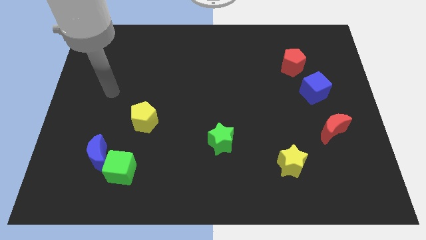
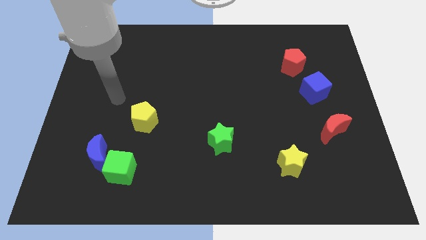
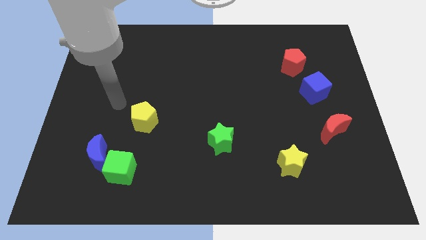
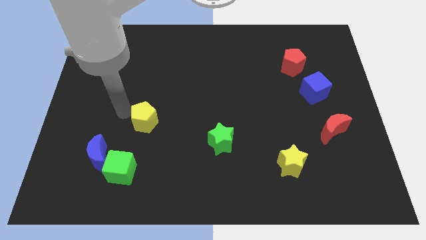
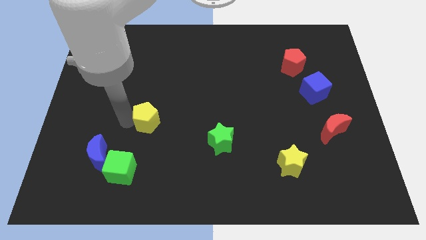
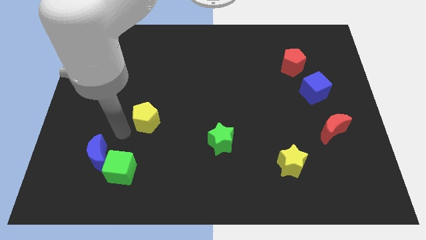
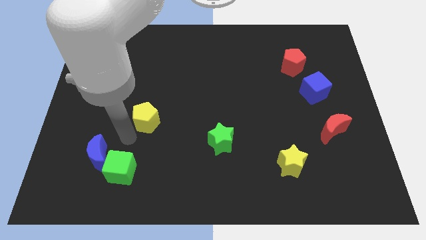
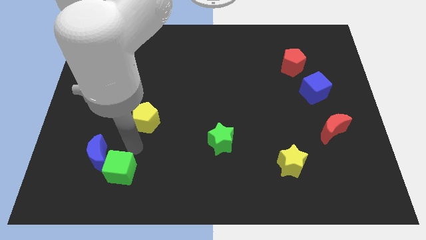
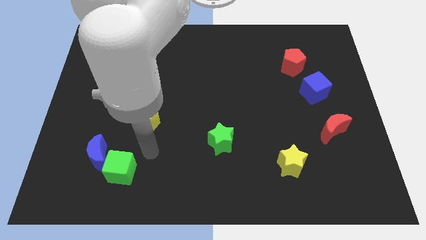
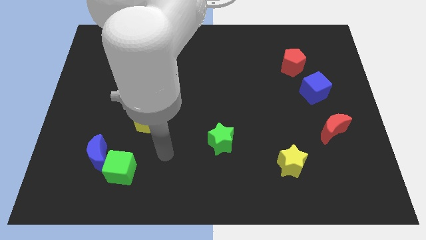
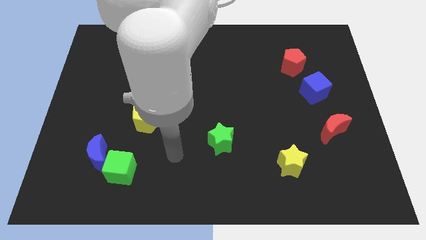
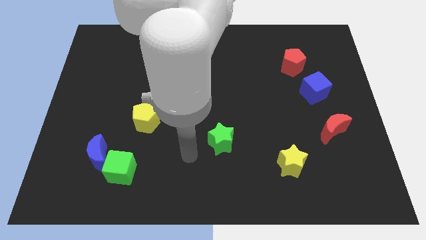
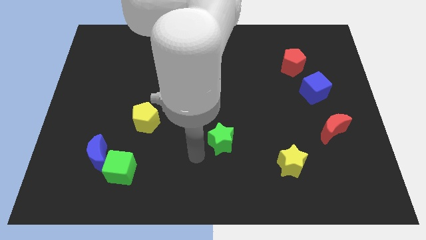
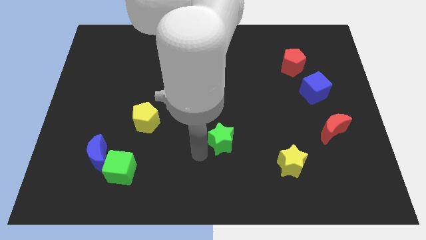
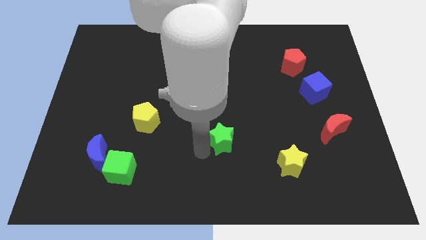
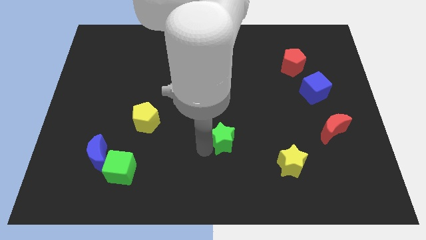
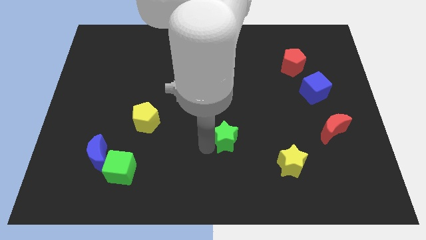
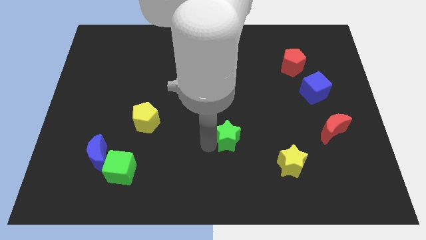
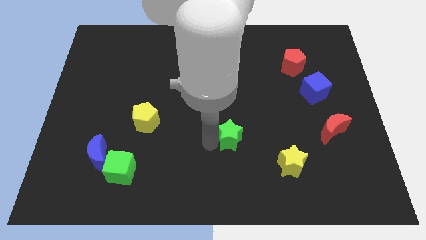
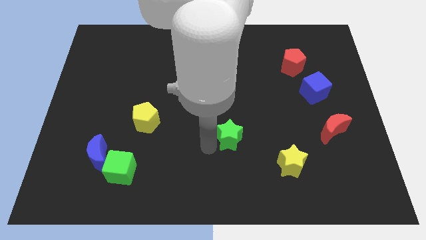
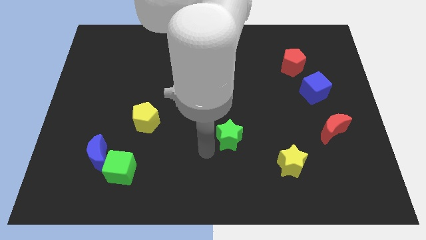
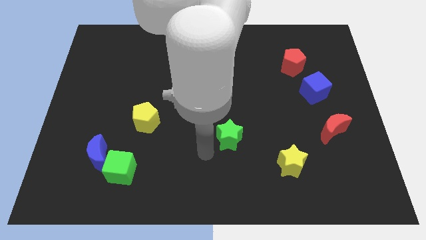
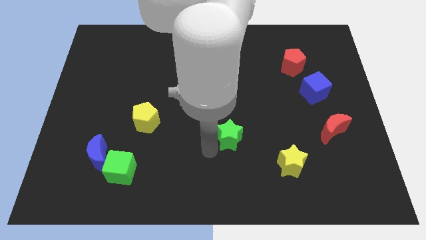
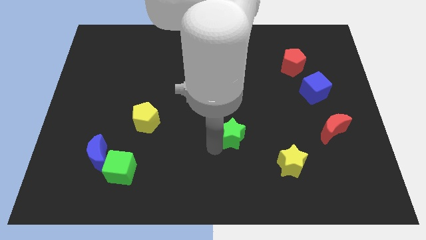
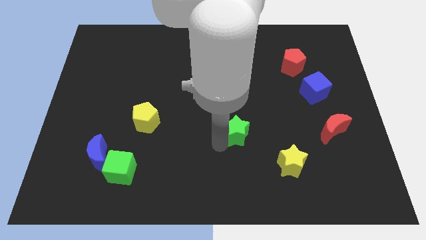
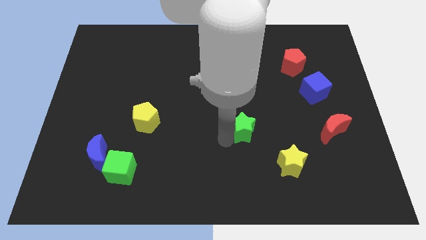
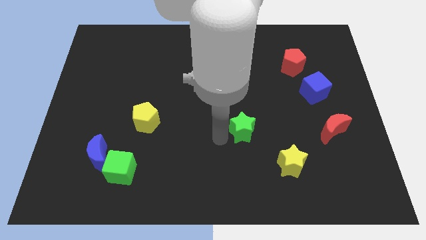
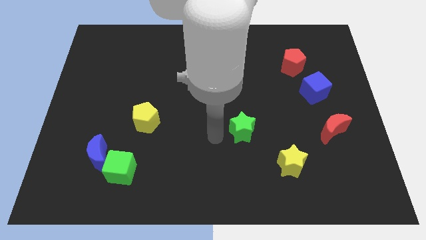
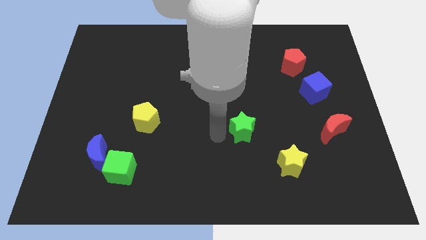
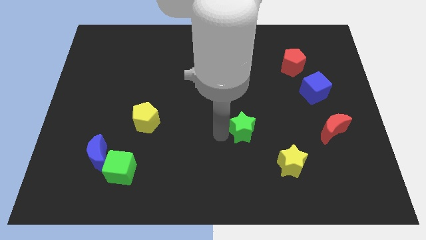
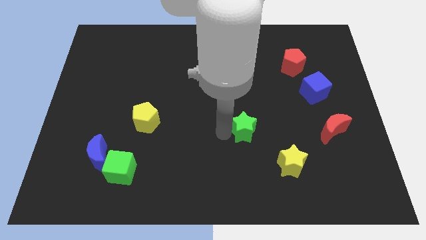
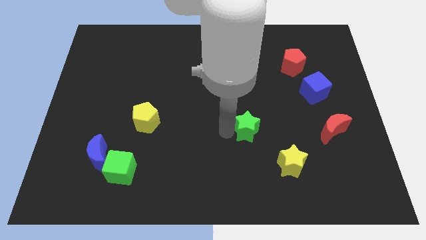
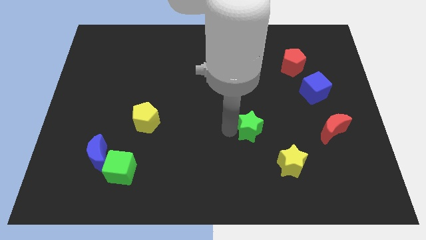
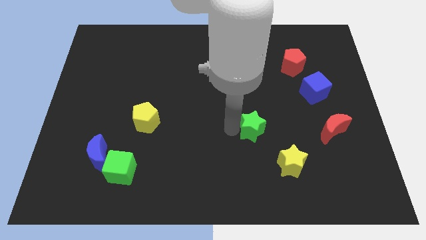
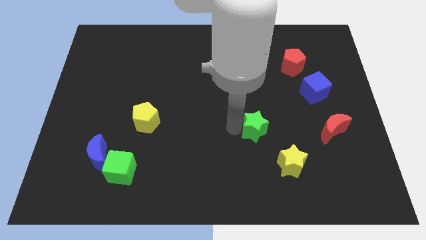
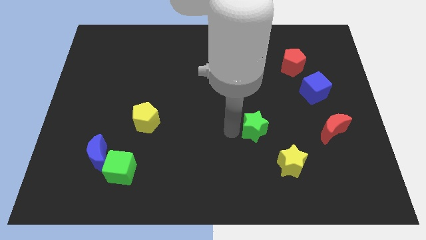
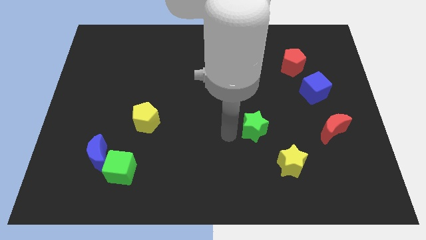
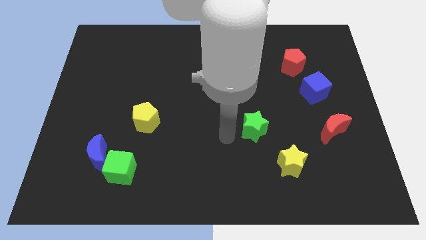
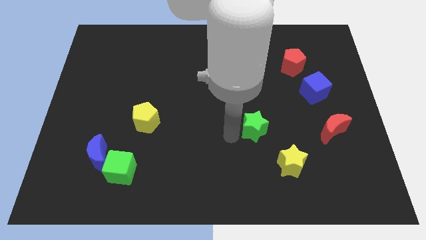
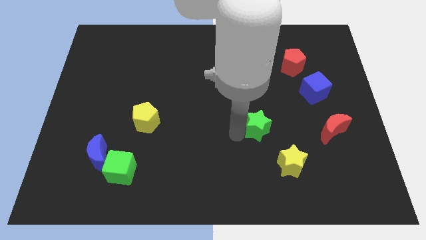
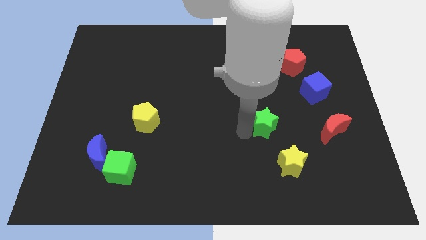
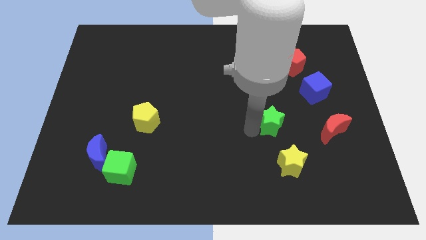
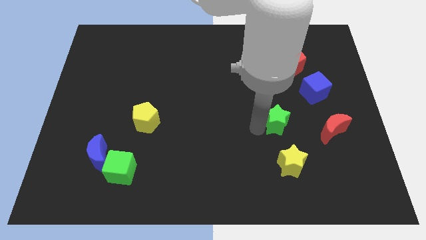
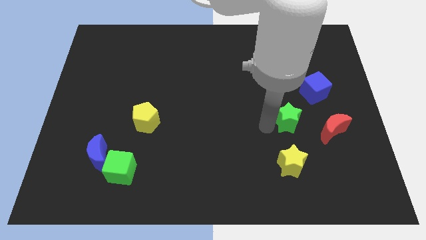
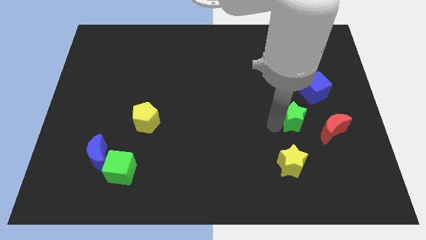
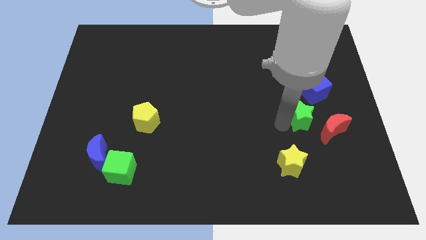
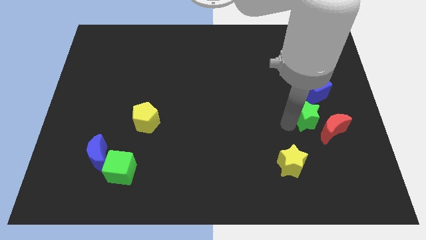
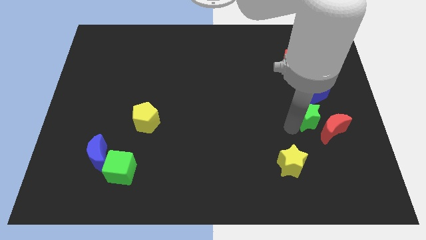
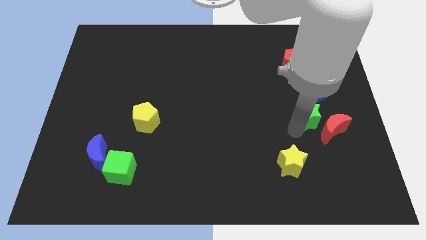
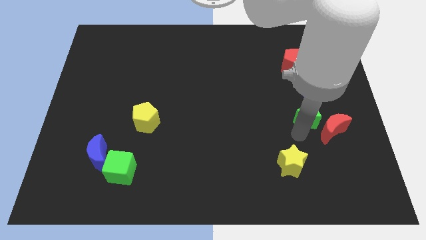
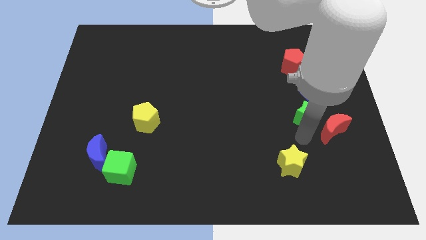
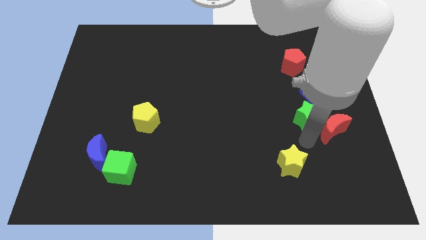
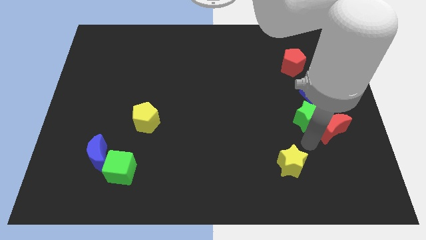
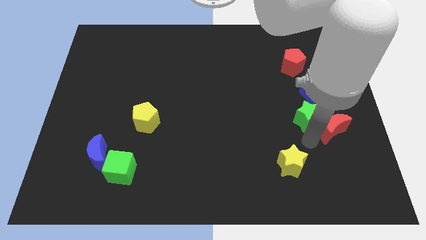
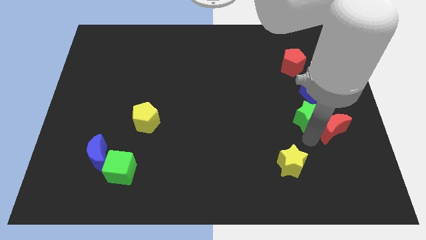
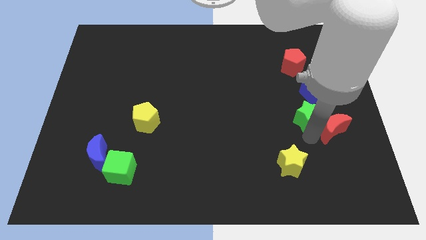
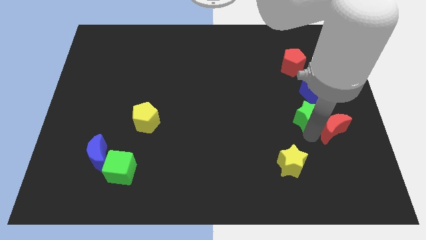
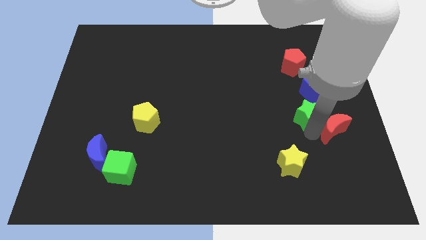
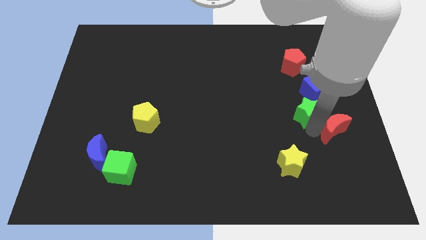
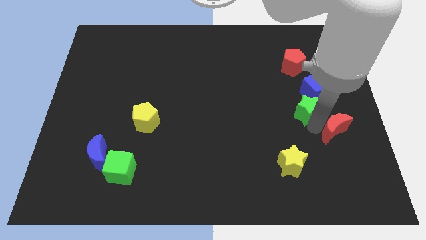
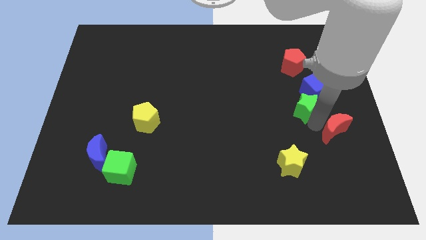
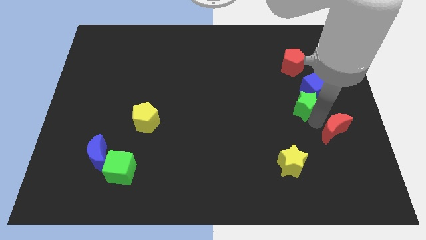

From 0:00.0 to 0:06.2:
slide the green star to the blue cube

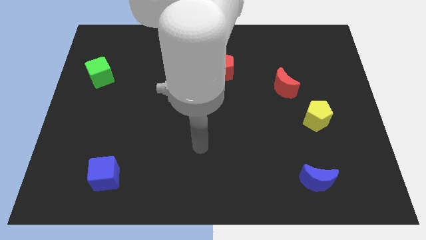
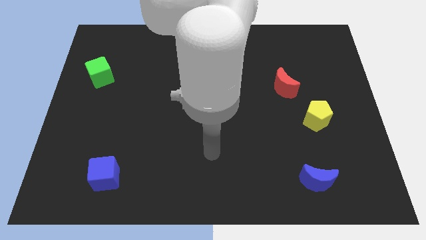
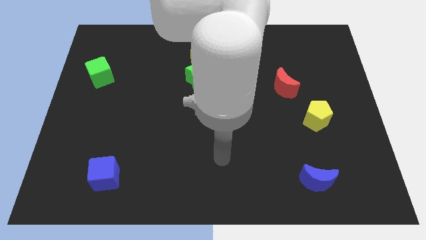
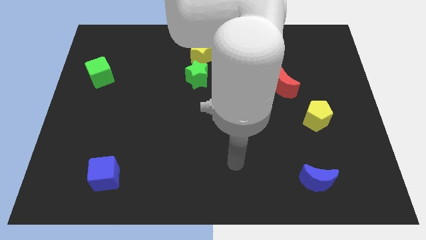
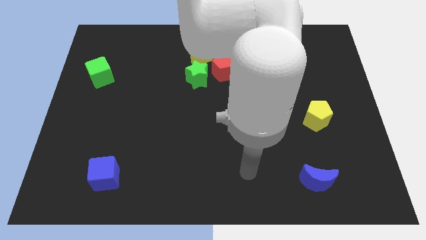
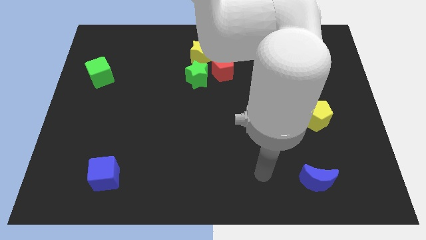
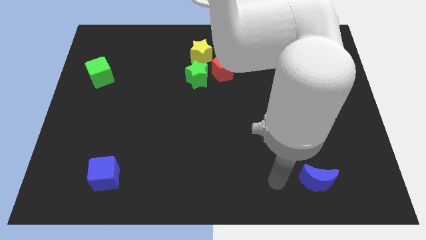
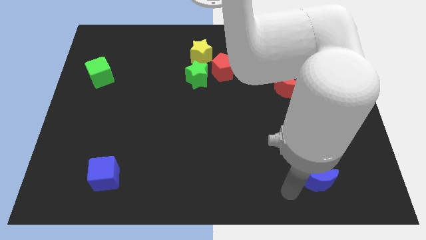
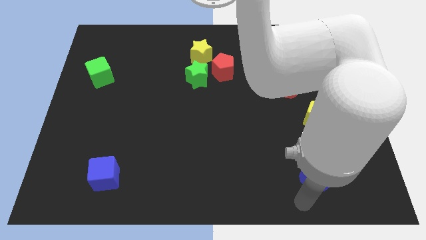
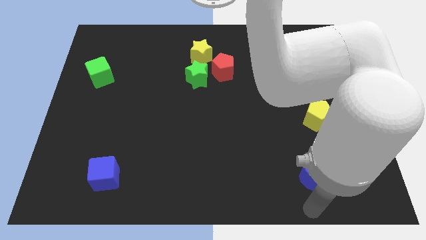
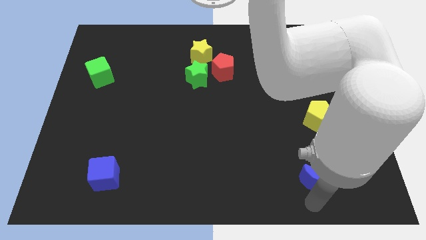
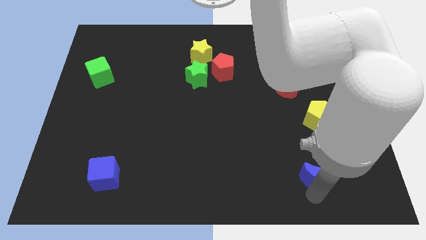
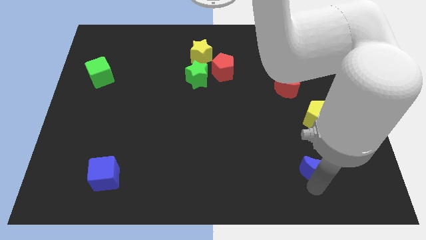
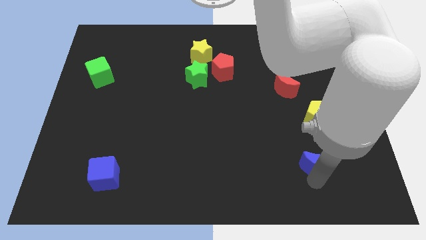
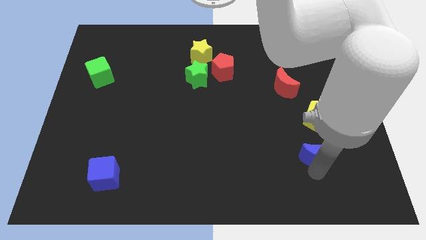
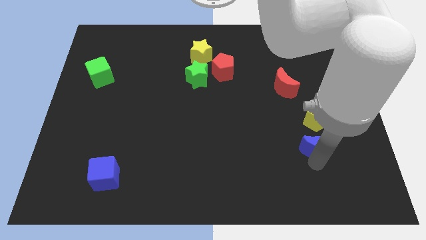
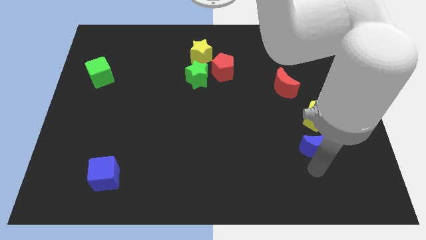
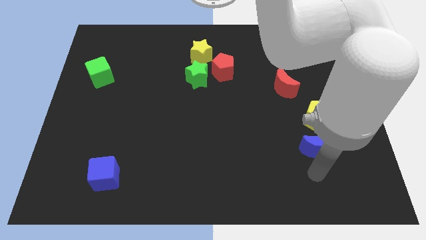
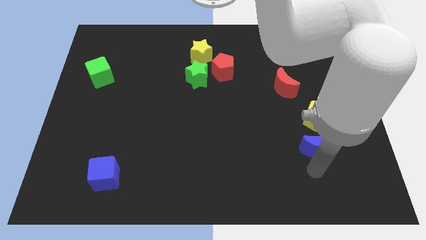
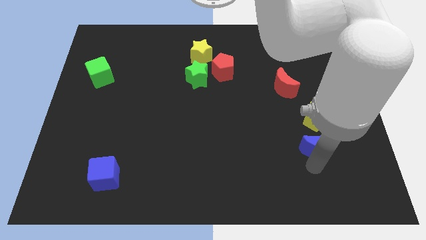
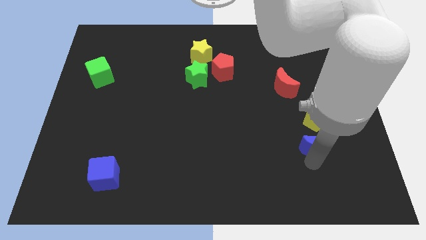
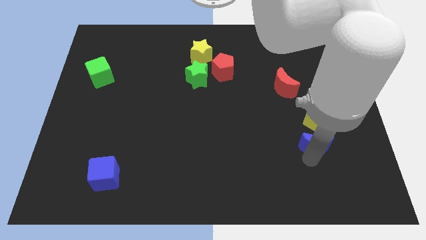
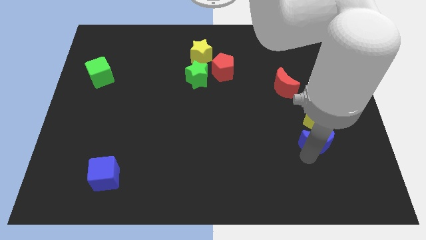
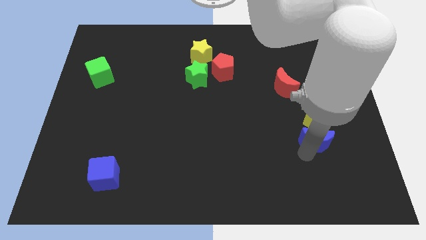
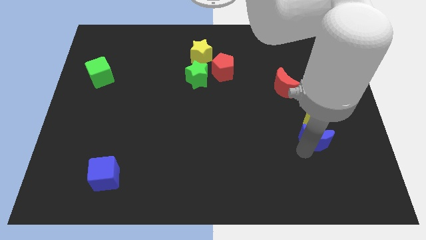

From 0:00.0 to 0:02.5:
slide the blue moon towards the yellow pentagon
